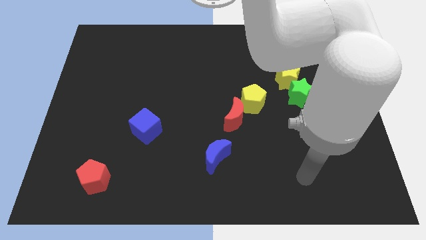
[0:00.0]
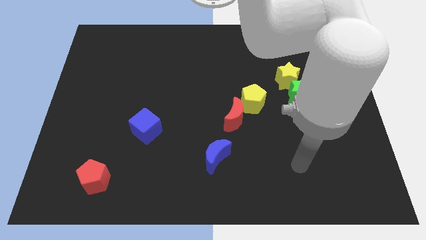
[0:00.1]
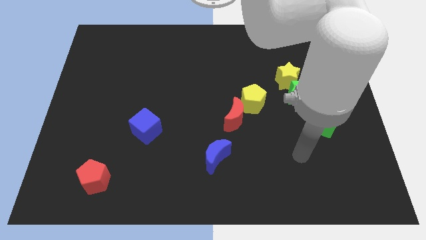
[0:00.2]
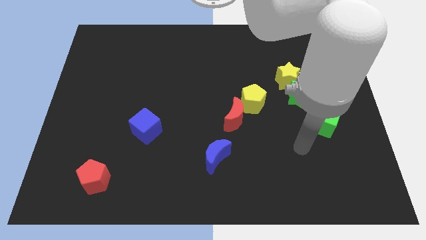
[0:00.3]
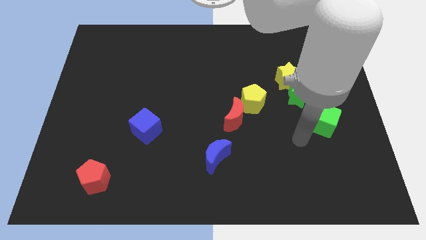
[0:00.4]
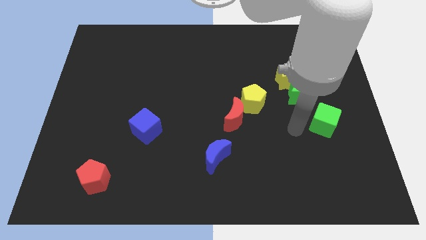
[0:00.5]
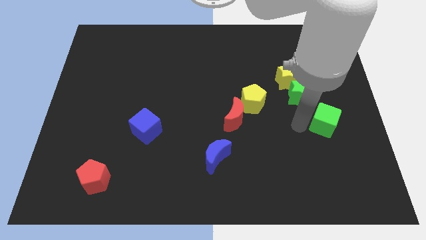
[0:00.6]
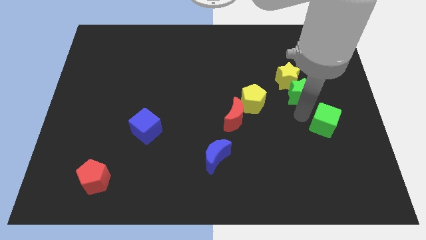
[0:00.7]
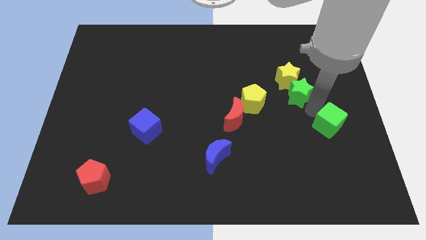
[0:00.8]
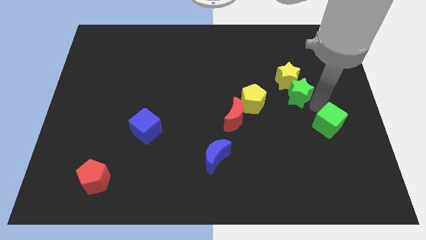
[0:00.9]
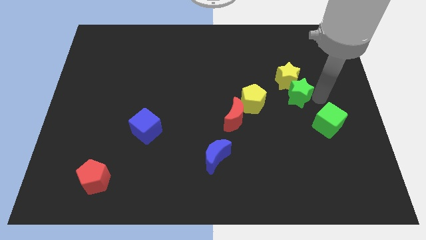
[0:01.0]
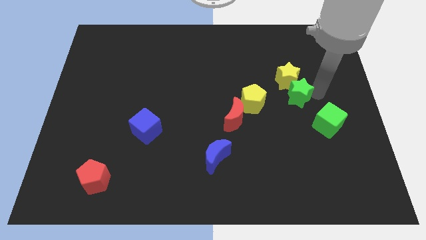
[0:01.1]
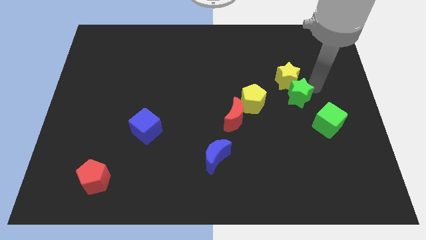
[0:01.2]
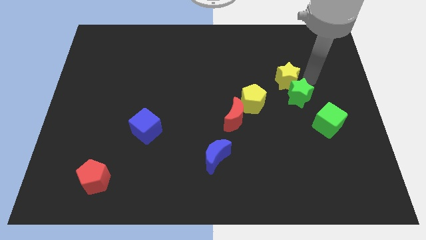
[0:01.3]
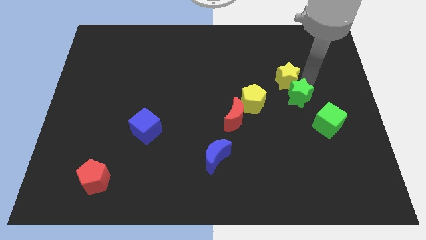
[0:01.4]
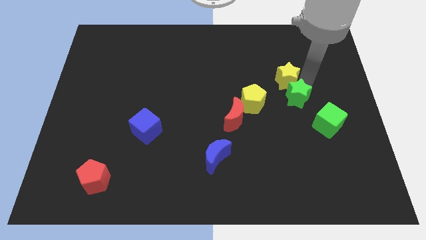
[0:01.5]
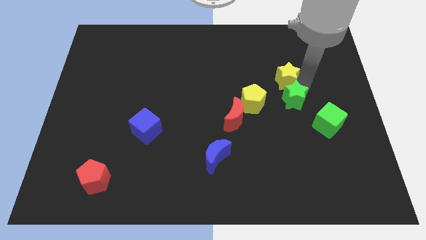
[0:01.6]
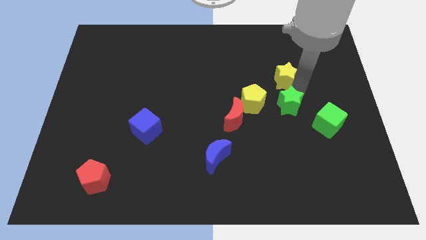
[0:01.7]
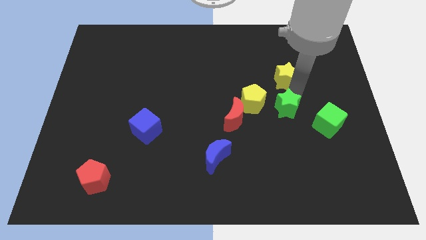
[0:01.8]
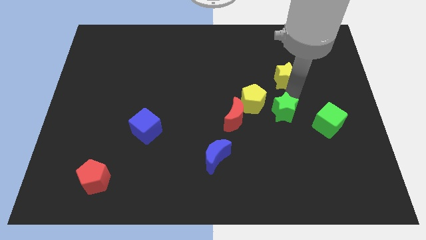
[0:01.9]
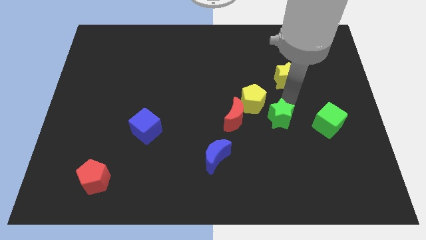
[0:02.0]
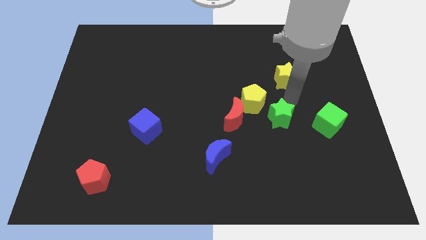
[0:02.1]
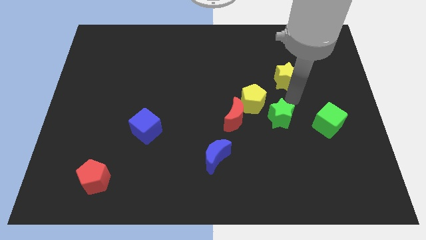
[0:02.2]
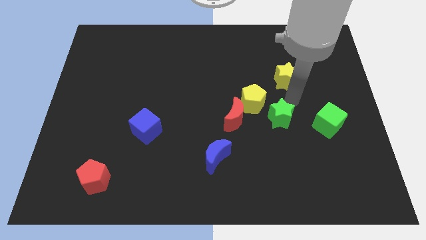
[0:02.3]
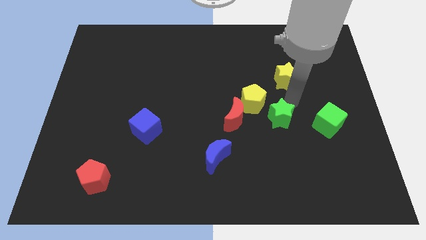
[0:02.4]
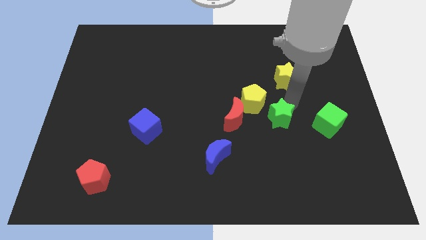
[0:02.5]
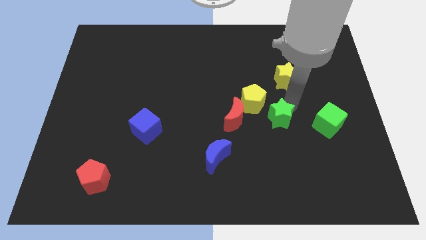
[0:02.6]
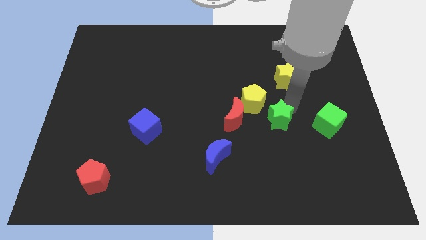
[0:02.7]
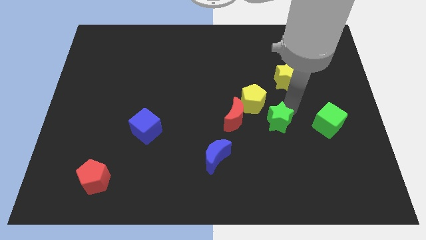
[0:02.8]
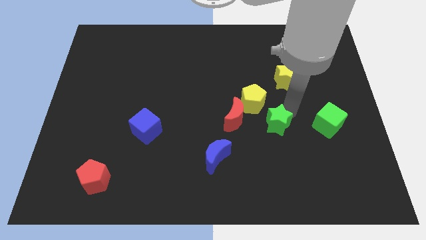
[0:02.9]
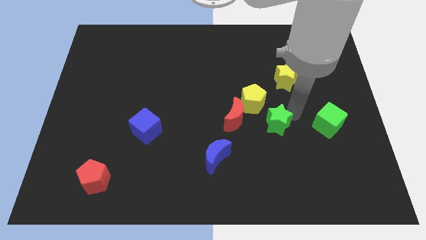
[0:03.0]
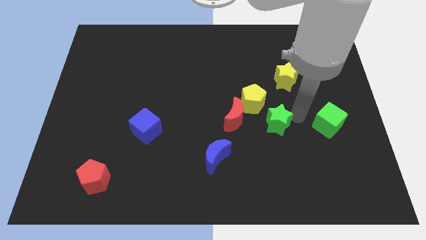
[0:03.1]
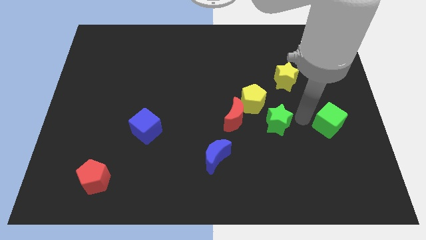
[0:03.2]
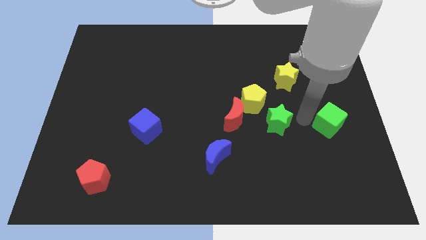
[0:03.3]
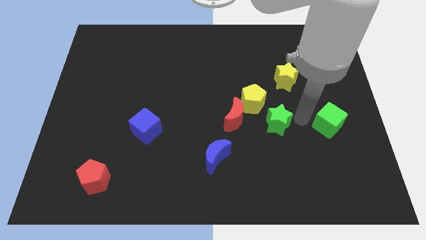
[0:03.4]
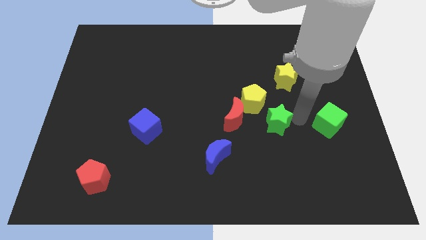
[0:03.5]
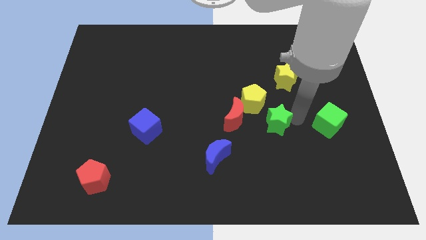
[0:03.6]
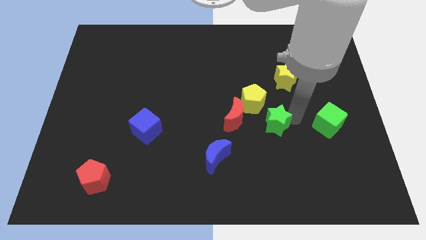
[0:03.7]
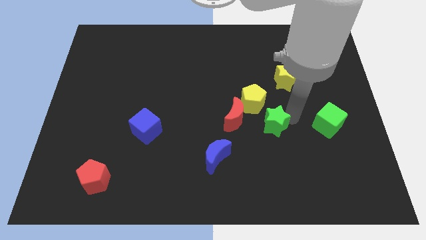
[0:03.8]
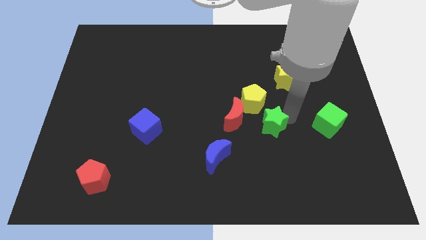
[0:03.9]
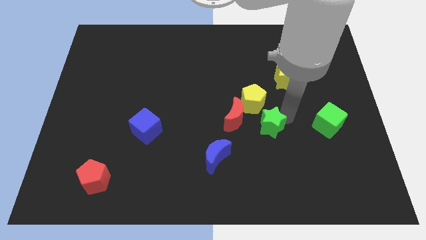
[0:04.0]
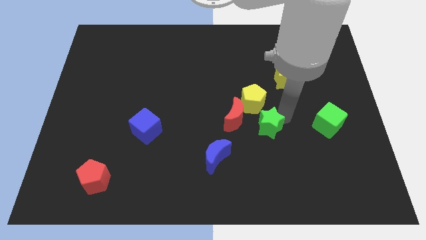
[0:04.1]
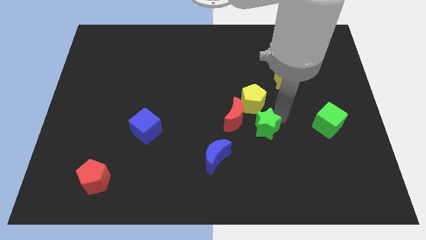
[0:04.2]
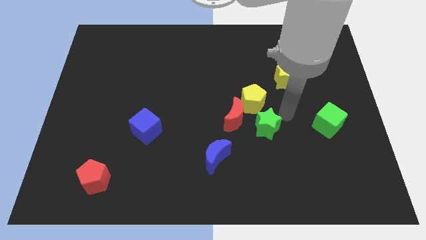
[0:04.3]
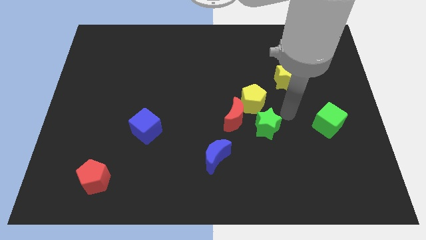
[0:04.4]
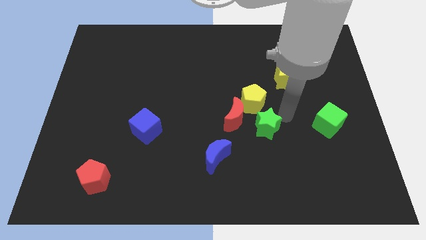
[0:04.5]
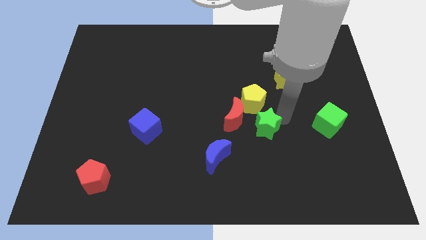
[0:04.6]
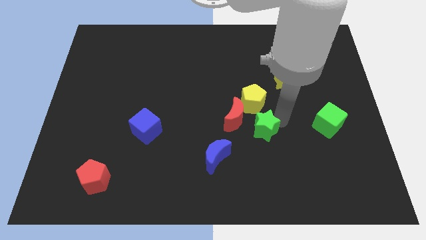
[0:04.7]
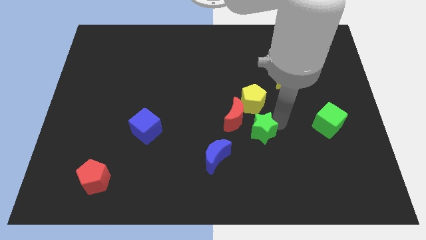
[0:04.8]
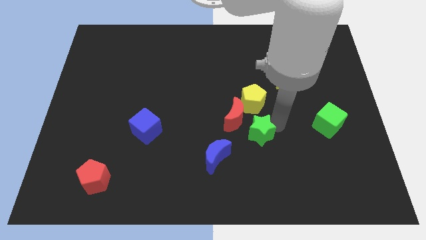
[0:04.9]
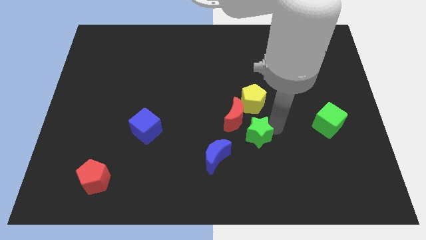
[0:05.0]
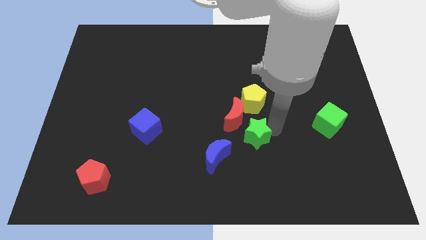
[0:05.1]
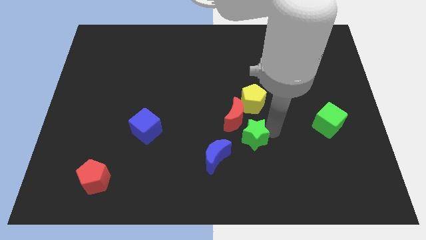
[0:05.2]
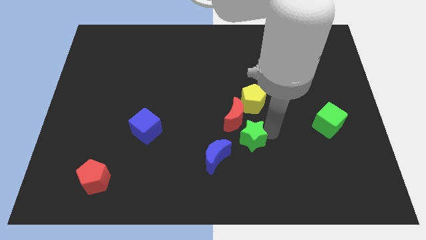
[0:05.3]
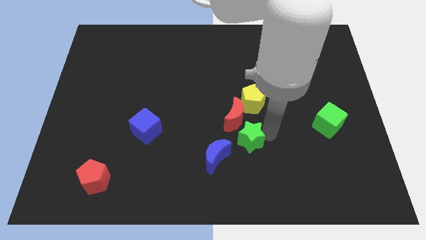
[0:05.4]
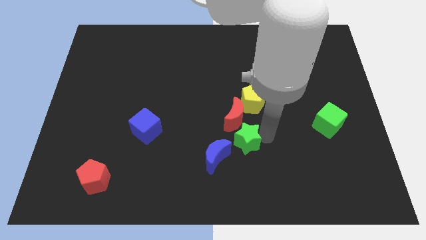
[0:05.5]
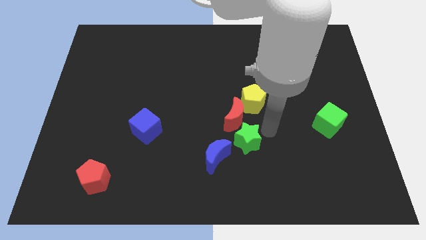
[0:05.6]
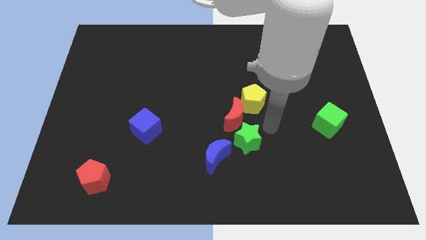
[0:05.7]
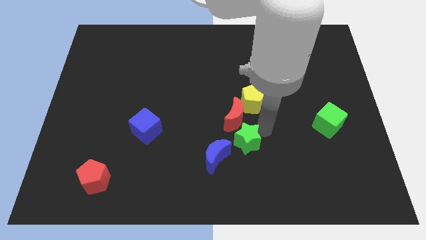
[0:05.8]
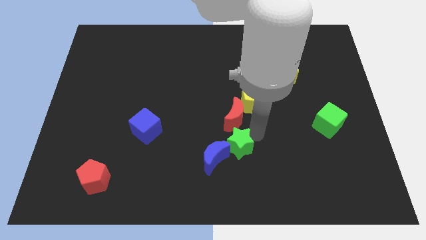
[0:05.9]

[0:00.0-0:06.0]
put the green star next to the blue moon

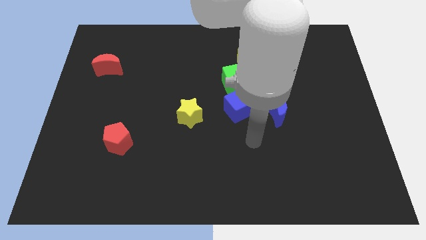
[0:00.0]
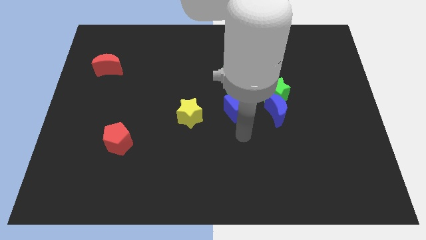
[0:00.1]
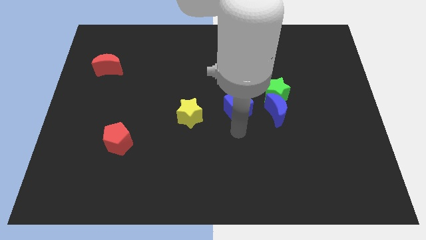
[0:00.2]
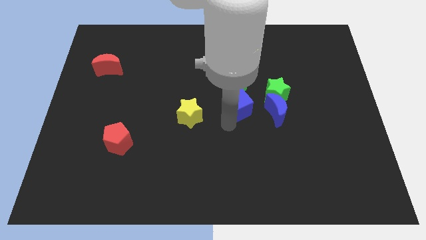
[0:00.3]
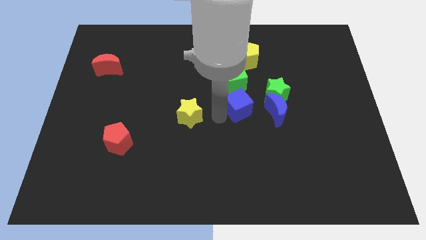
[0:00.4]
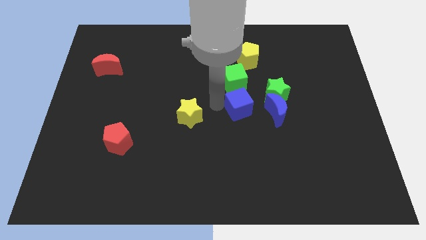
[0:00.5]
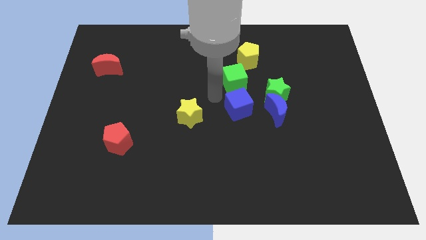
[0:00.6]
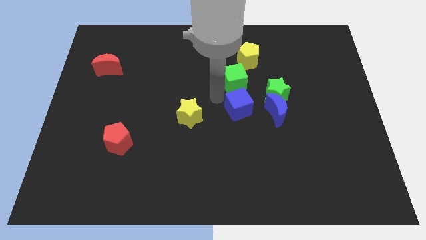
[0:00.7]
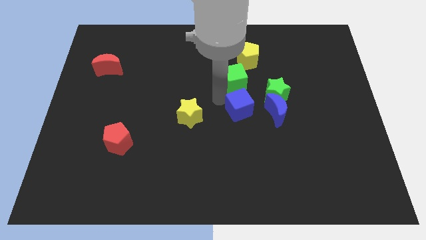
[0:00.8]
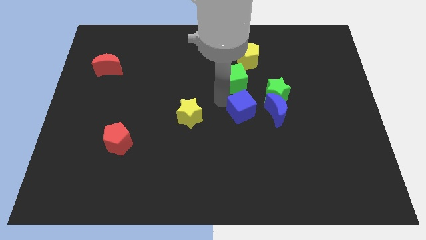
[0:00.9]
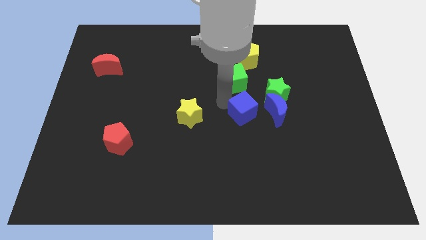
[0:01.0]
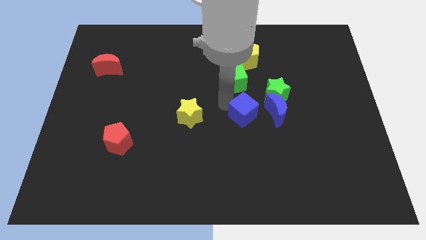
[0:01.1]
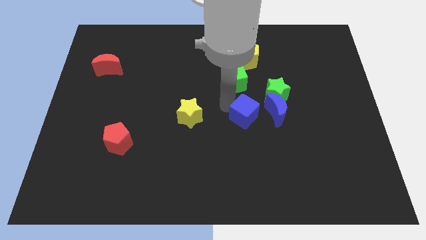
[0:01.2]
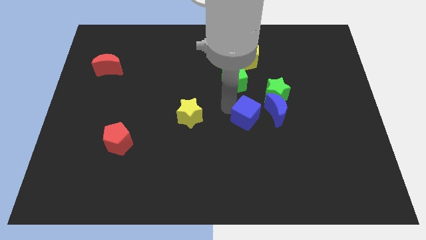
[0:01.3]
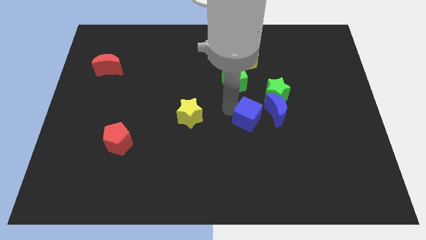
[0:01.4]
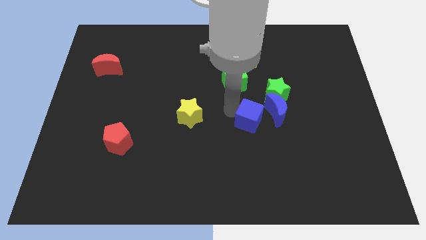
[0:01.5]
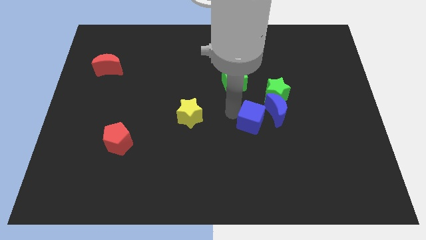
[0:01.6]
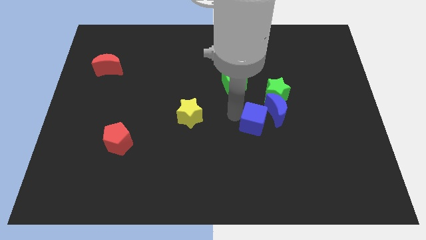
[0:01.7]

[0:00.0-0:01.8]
move the blue cube next to the blue moon
